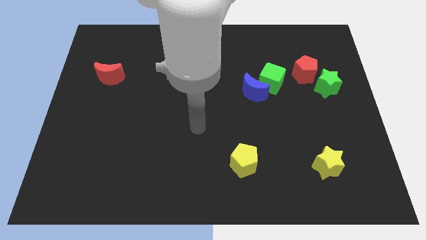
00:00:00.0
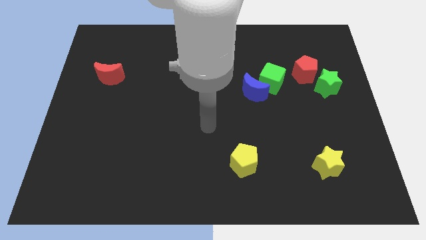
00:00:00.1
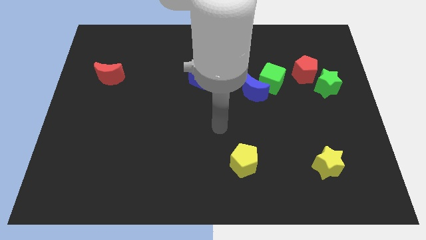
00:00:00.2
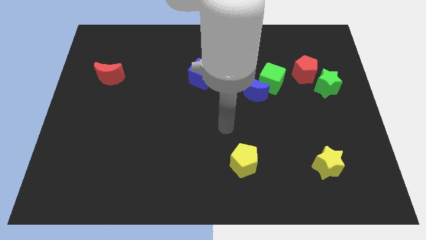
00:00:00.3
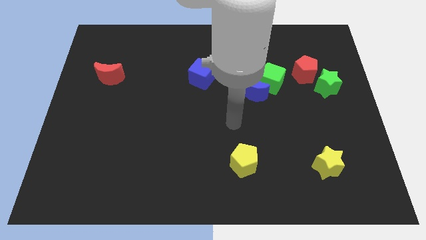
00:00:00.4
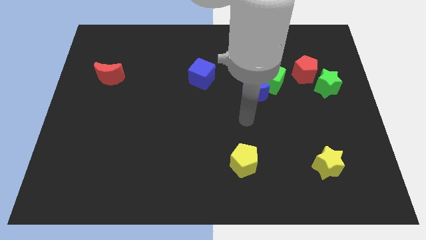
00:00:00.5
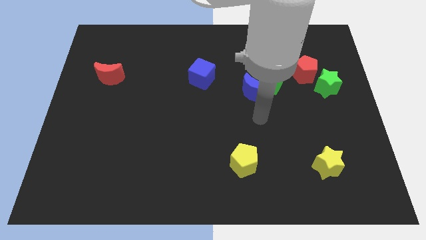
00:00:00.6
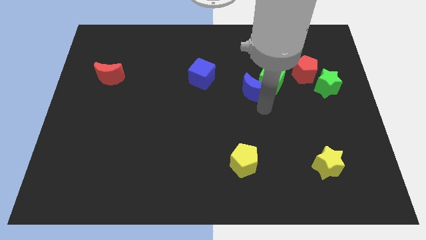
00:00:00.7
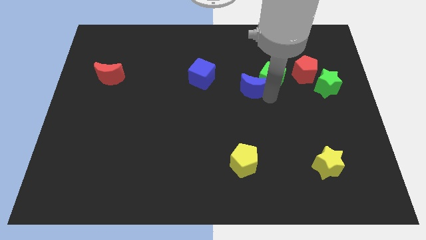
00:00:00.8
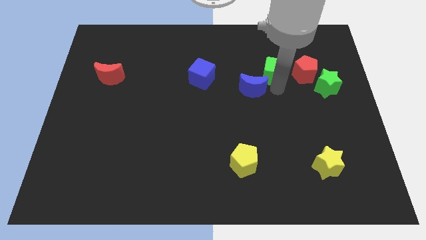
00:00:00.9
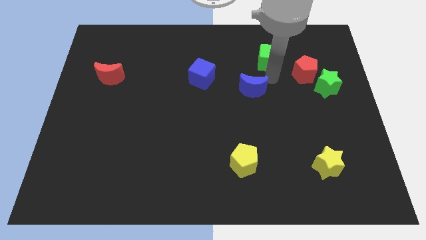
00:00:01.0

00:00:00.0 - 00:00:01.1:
pull the blue moon apart from the green cube

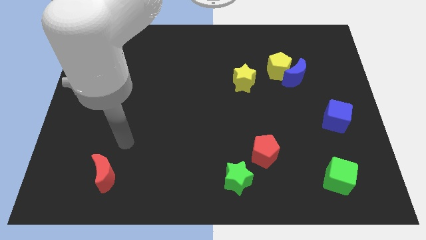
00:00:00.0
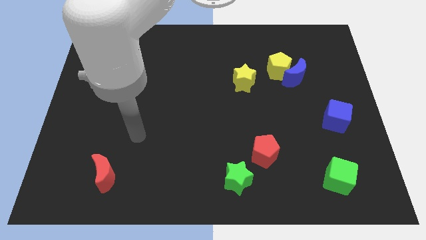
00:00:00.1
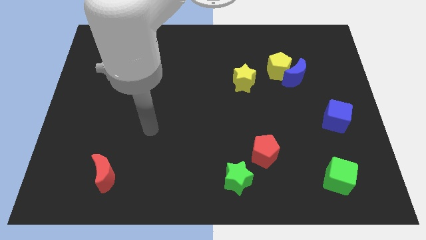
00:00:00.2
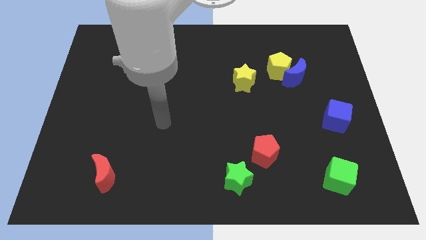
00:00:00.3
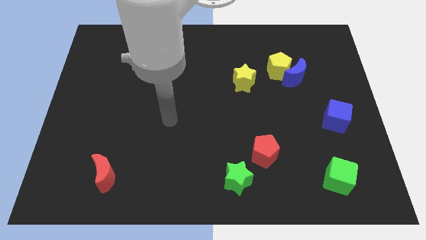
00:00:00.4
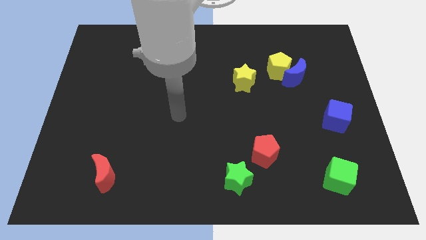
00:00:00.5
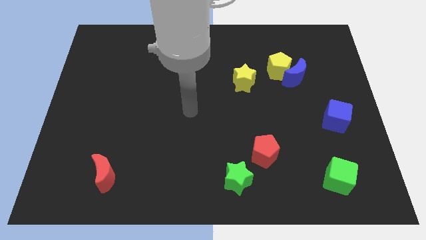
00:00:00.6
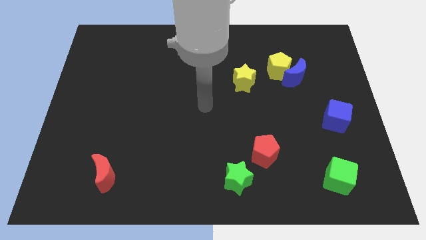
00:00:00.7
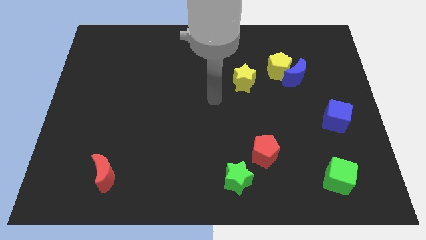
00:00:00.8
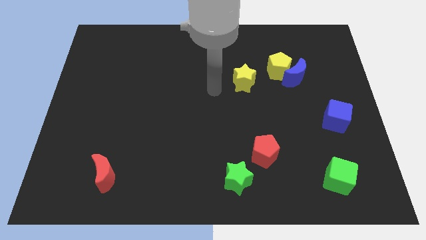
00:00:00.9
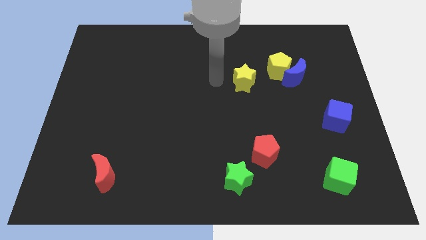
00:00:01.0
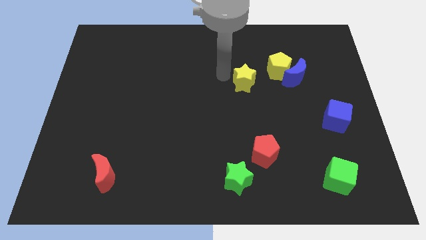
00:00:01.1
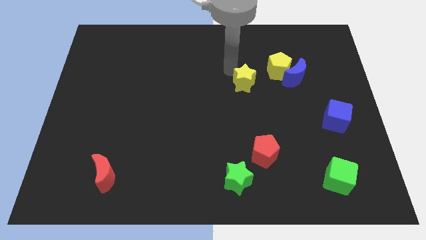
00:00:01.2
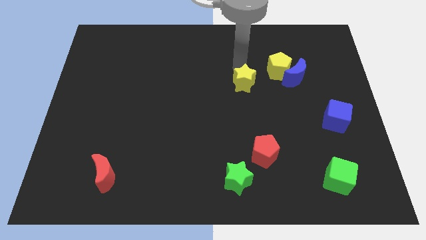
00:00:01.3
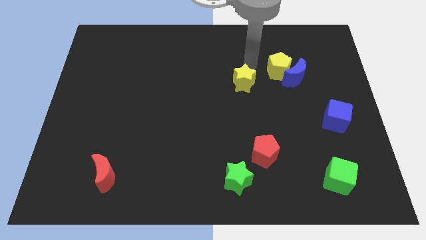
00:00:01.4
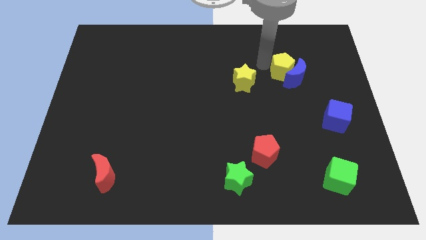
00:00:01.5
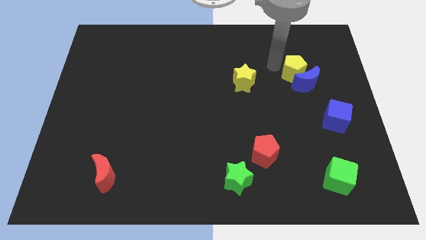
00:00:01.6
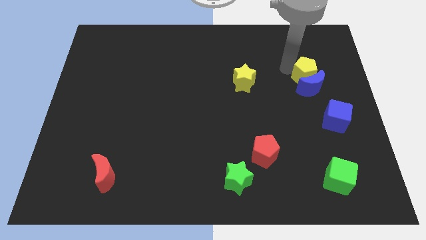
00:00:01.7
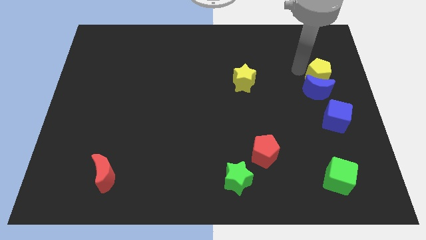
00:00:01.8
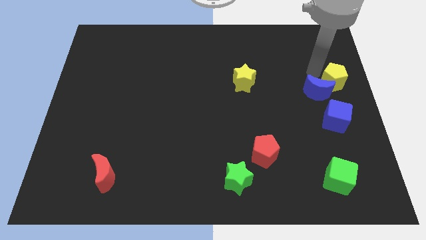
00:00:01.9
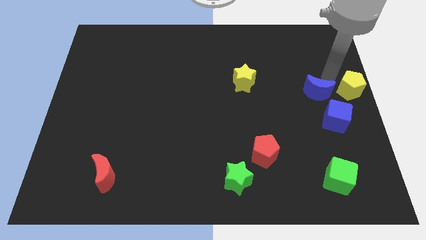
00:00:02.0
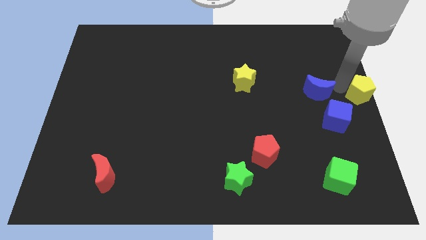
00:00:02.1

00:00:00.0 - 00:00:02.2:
pull the blue moon apart from the yellow pentagon

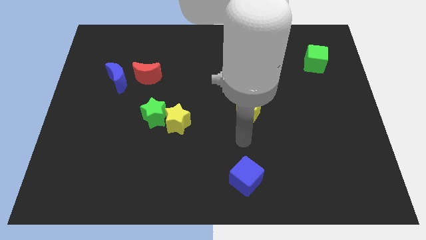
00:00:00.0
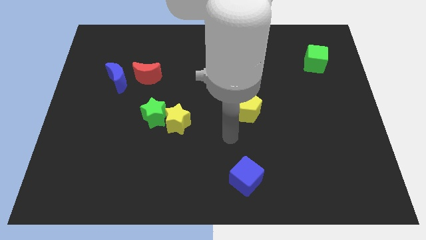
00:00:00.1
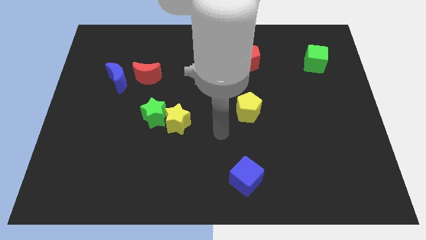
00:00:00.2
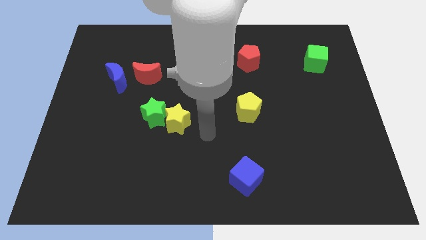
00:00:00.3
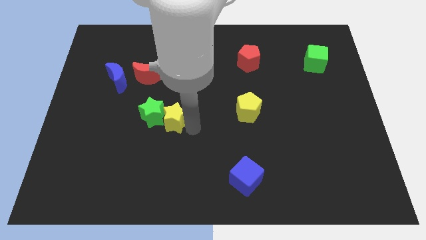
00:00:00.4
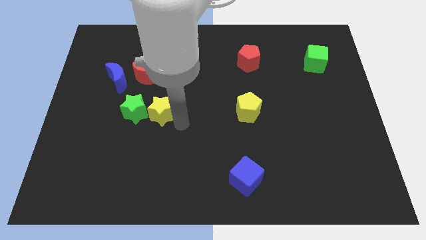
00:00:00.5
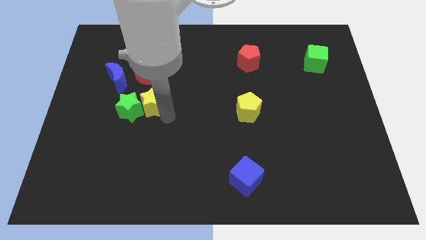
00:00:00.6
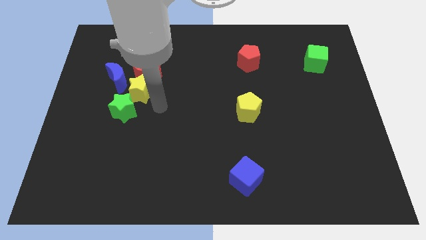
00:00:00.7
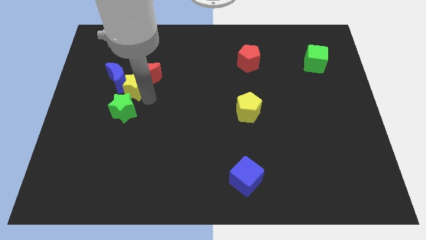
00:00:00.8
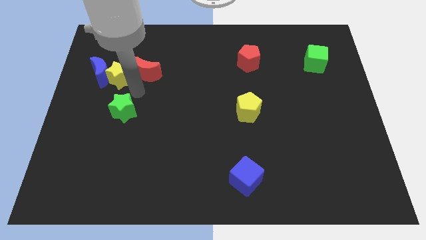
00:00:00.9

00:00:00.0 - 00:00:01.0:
move the green star away from the yellow star

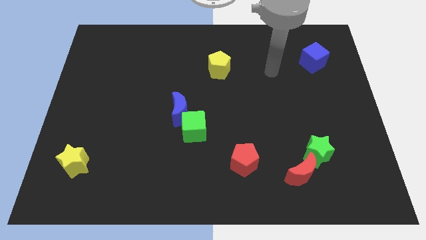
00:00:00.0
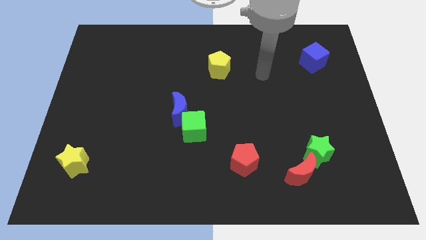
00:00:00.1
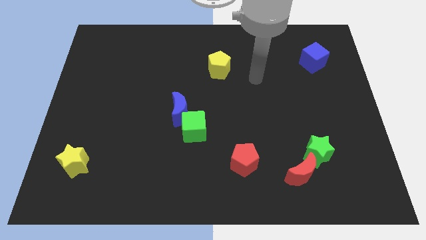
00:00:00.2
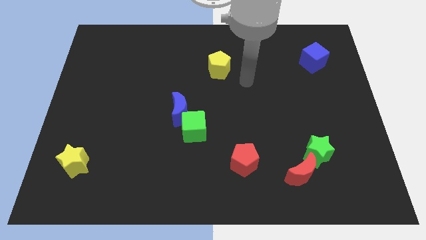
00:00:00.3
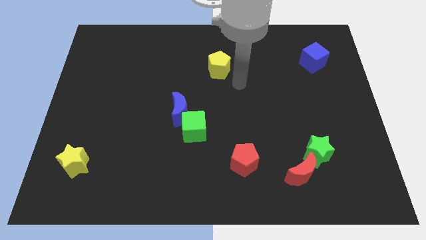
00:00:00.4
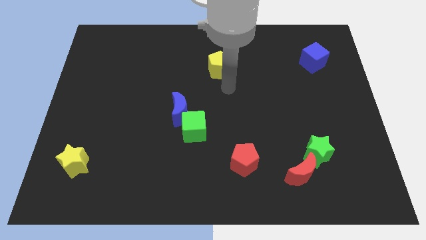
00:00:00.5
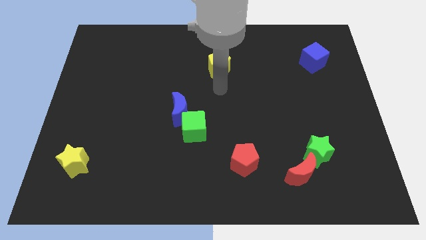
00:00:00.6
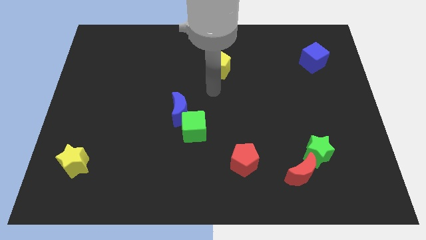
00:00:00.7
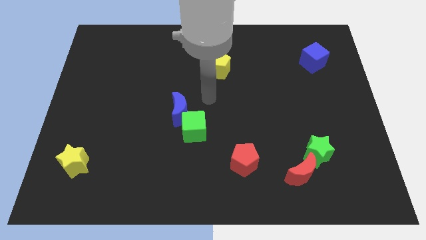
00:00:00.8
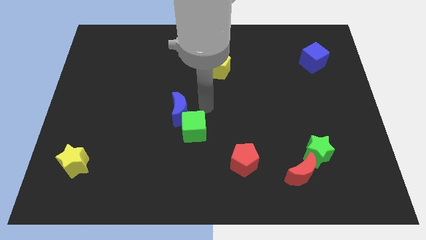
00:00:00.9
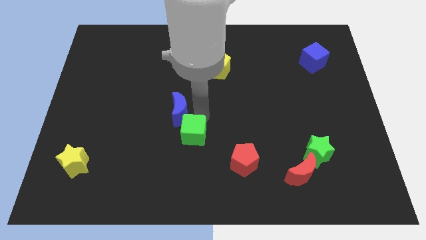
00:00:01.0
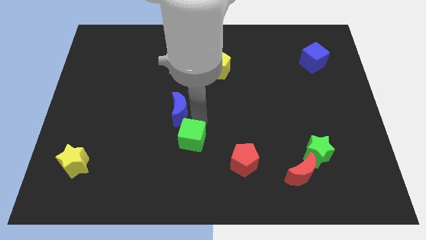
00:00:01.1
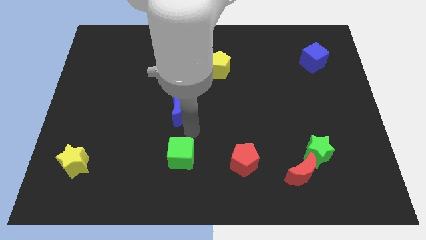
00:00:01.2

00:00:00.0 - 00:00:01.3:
move the blue moon away from the green cube

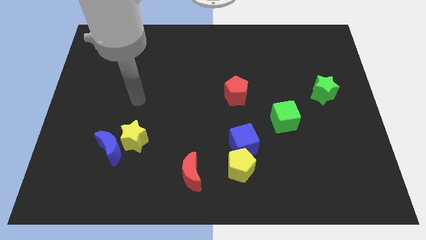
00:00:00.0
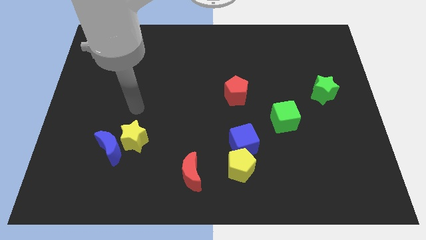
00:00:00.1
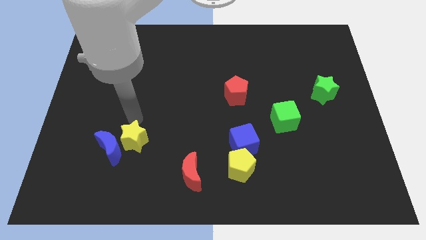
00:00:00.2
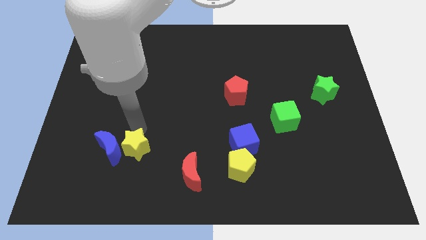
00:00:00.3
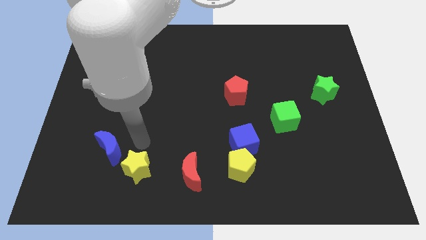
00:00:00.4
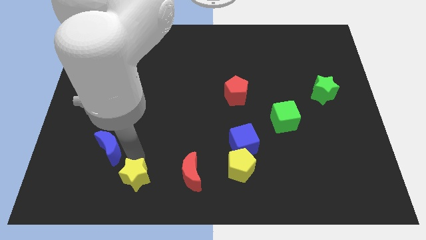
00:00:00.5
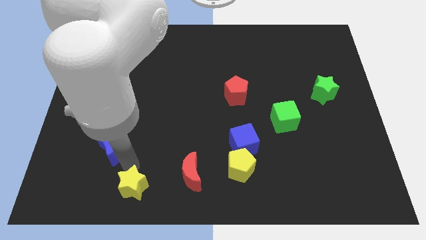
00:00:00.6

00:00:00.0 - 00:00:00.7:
move the blue moon away from the yellow star

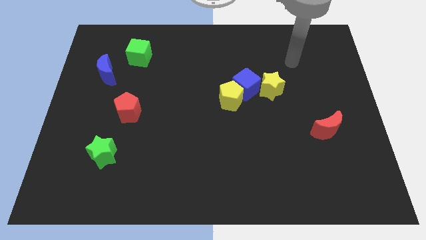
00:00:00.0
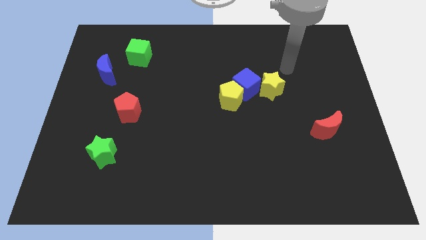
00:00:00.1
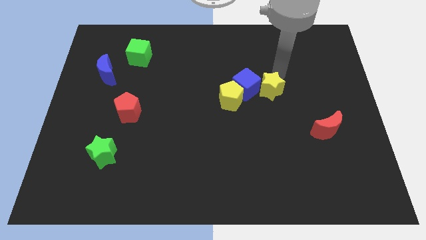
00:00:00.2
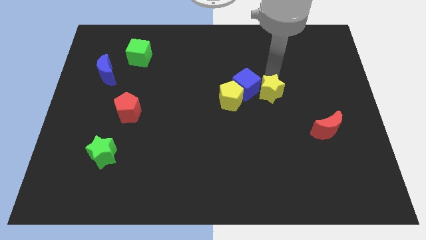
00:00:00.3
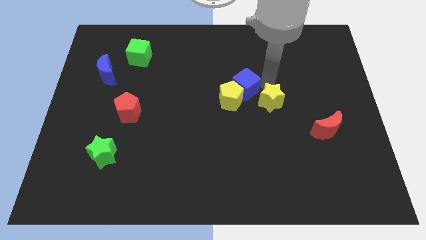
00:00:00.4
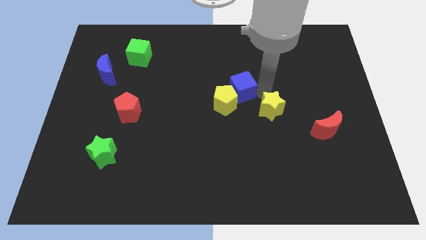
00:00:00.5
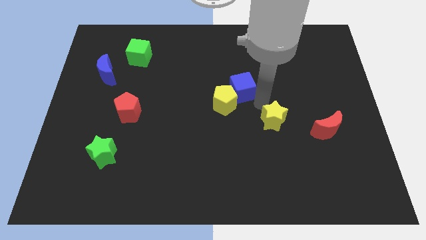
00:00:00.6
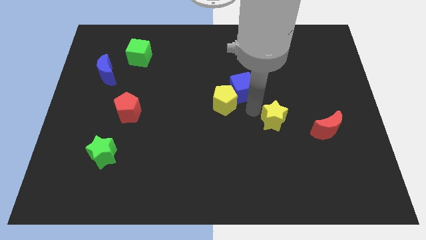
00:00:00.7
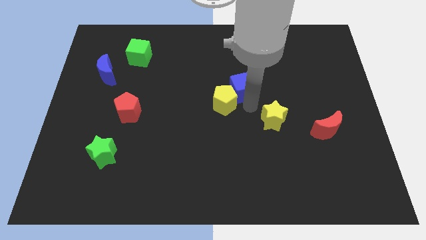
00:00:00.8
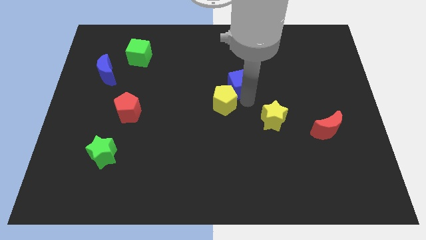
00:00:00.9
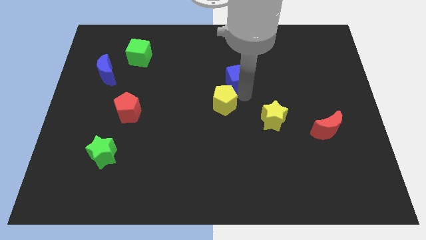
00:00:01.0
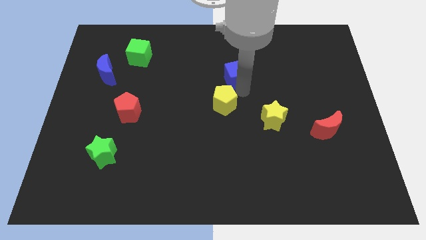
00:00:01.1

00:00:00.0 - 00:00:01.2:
pull the blue cube apart from the yellow pentagon and yellow star

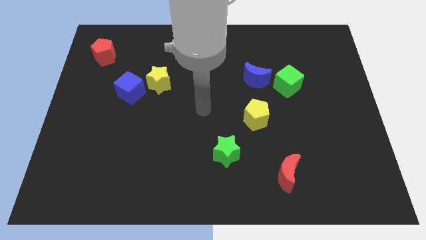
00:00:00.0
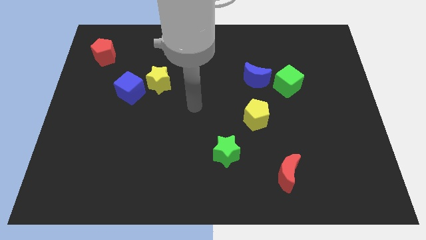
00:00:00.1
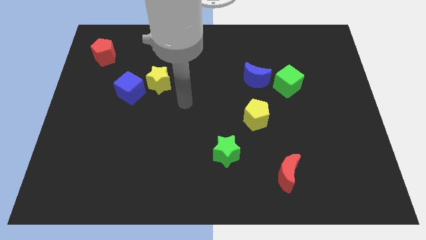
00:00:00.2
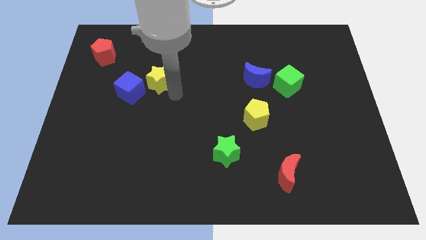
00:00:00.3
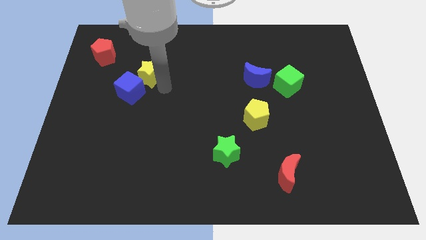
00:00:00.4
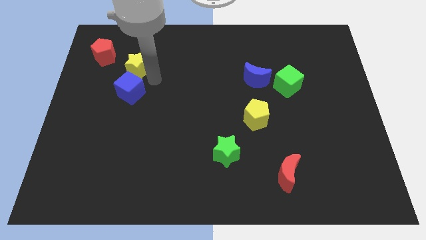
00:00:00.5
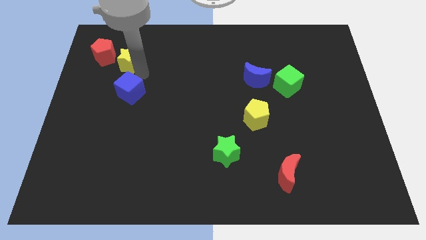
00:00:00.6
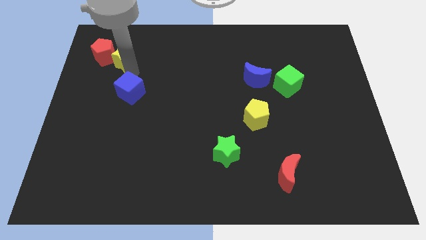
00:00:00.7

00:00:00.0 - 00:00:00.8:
separate the blue cube from the yellow star

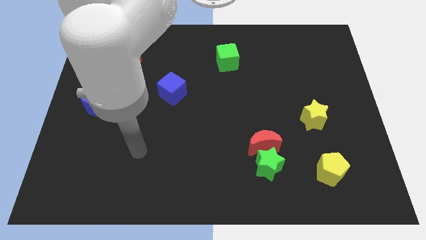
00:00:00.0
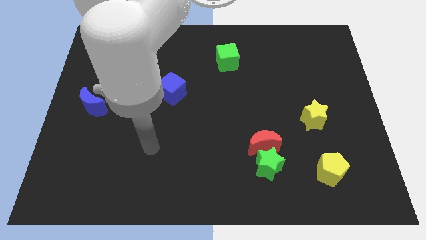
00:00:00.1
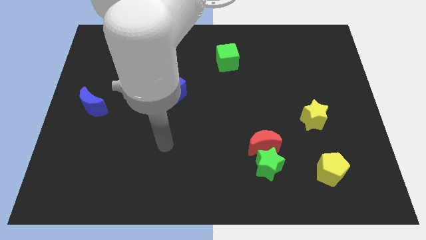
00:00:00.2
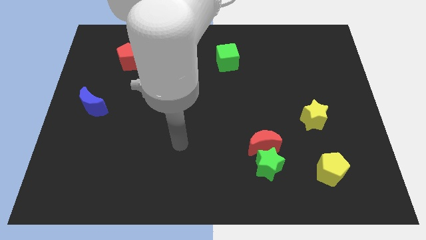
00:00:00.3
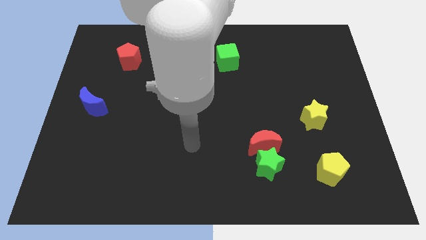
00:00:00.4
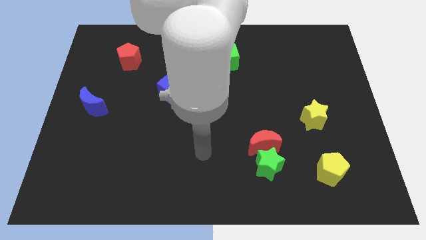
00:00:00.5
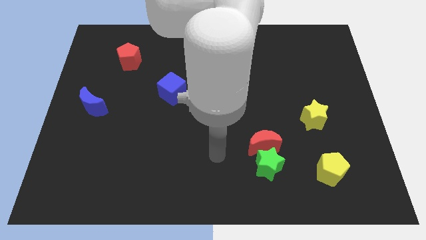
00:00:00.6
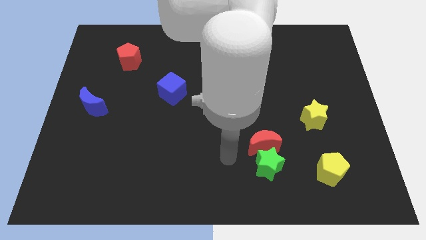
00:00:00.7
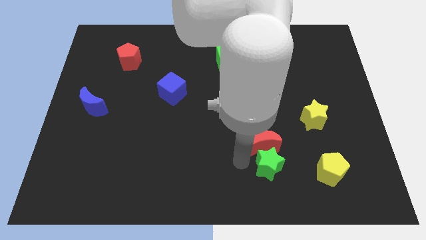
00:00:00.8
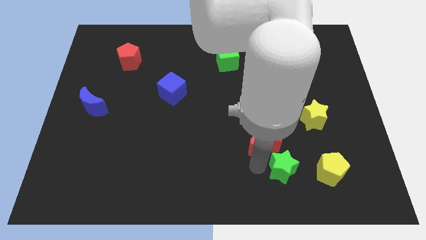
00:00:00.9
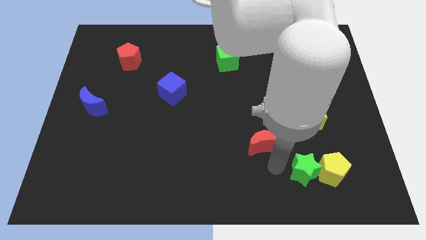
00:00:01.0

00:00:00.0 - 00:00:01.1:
move the red moon away from the green star
